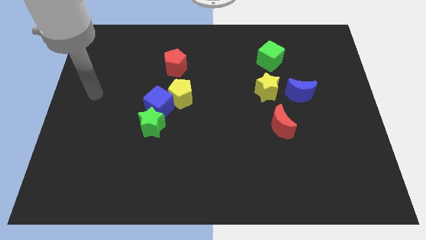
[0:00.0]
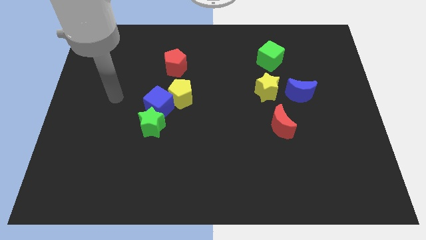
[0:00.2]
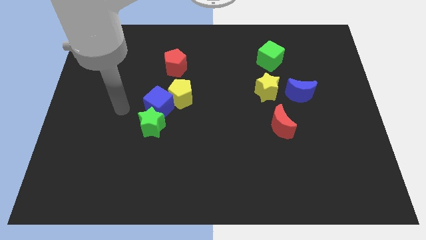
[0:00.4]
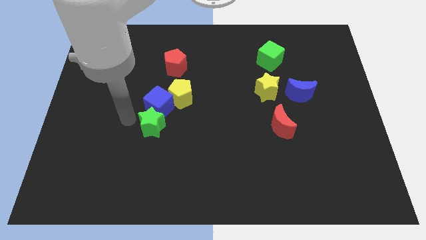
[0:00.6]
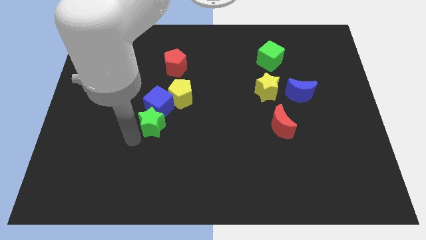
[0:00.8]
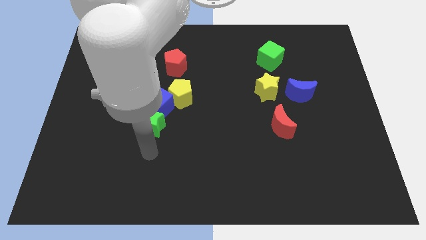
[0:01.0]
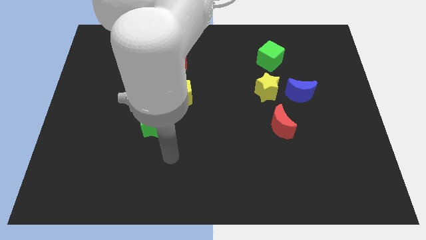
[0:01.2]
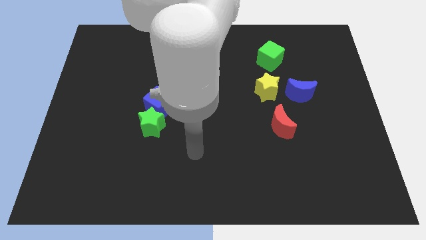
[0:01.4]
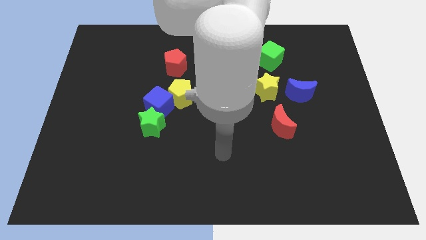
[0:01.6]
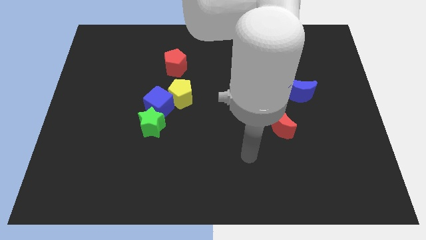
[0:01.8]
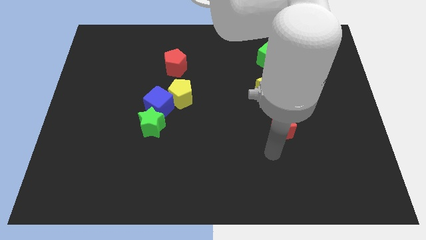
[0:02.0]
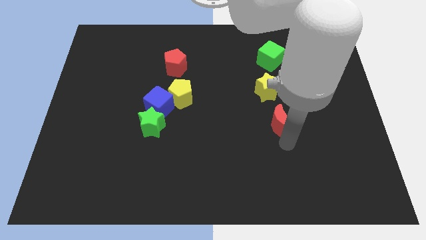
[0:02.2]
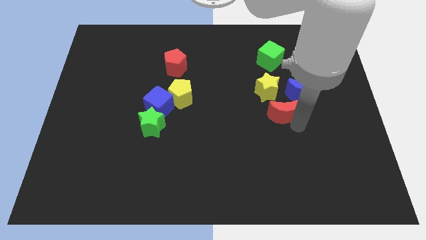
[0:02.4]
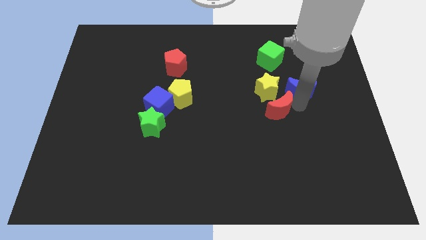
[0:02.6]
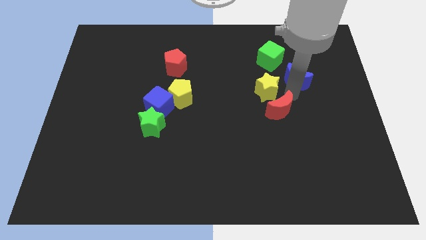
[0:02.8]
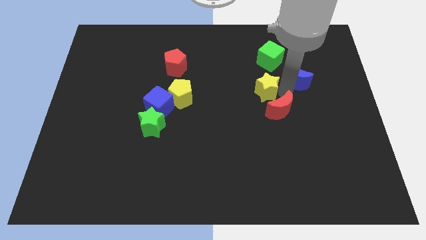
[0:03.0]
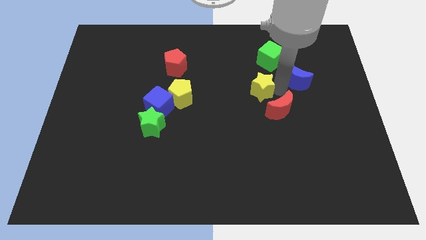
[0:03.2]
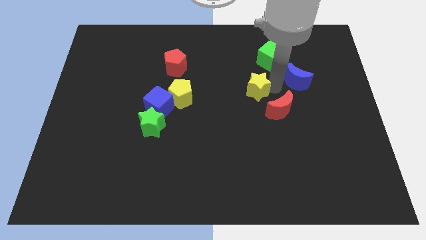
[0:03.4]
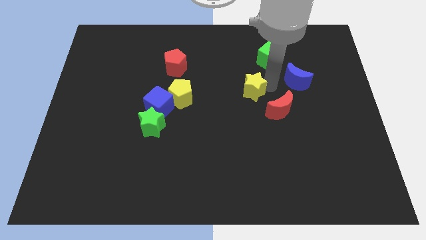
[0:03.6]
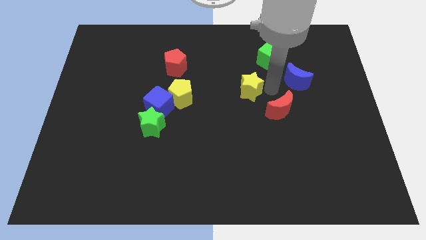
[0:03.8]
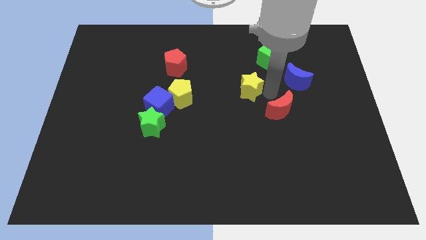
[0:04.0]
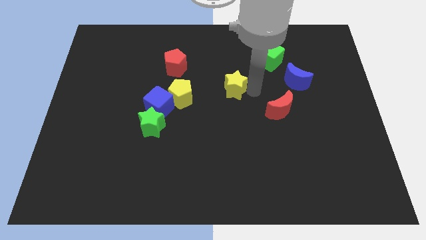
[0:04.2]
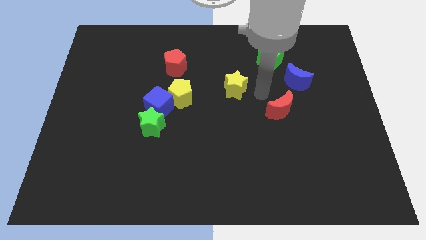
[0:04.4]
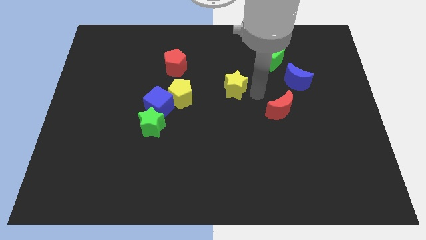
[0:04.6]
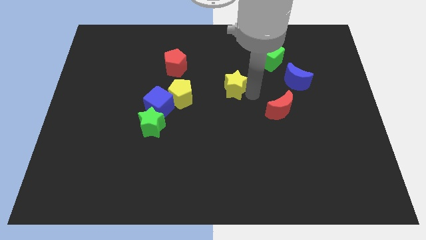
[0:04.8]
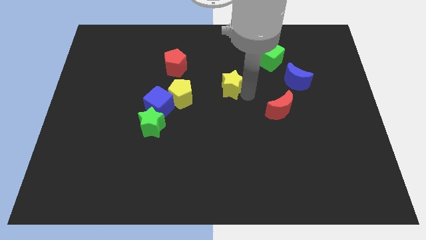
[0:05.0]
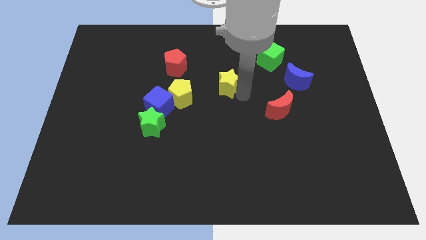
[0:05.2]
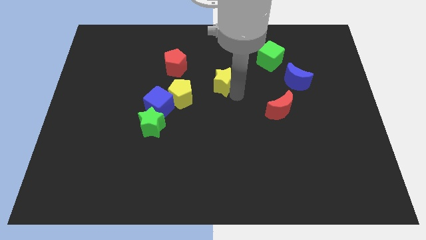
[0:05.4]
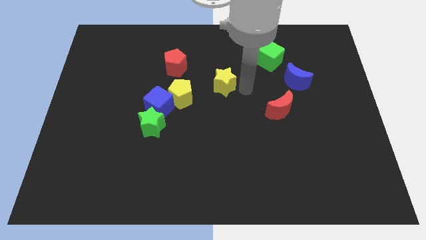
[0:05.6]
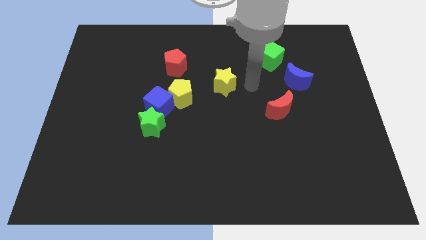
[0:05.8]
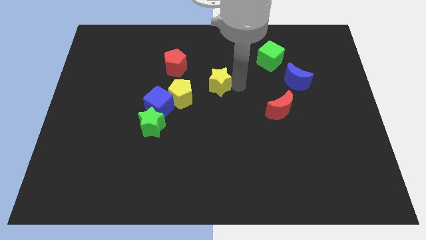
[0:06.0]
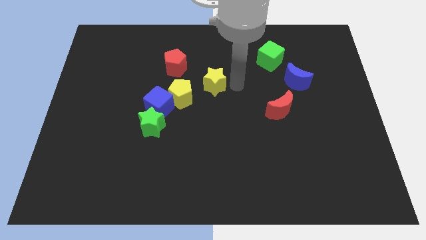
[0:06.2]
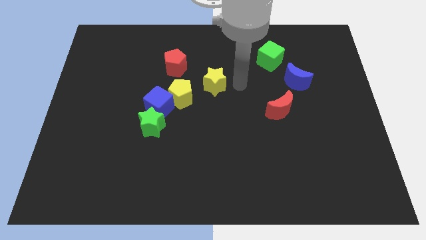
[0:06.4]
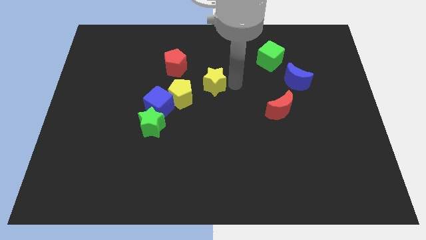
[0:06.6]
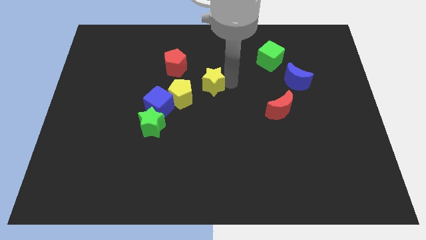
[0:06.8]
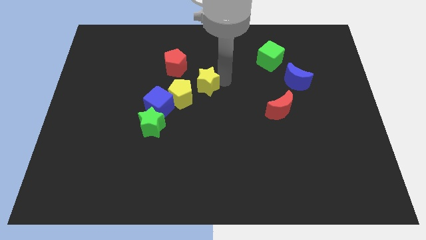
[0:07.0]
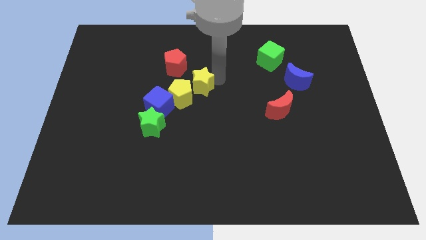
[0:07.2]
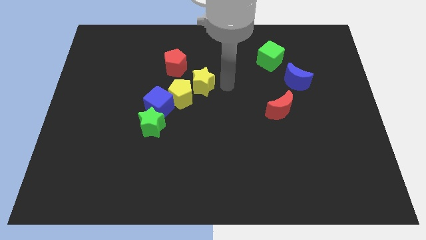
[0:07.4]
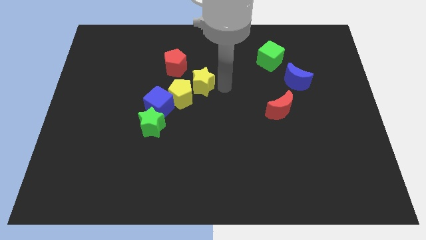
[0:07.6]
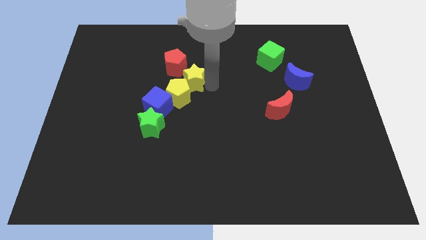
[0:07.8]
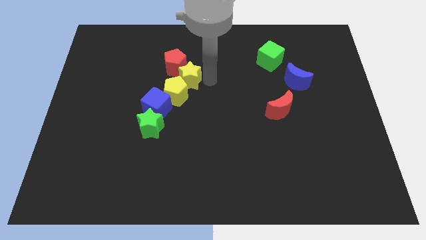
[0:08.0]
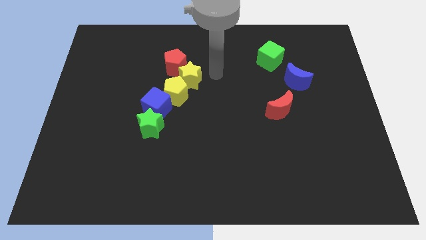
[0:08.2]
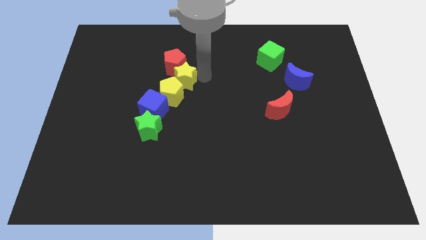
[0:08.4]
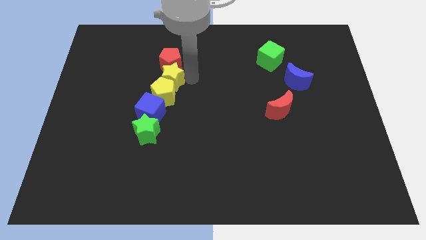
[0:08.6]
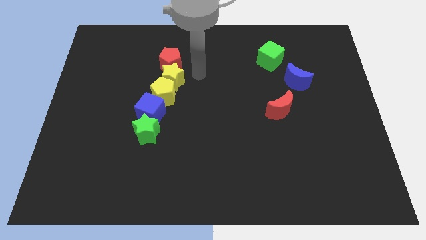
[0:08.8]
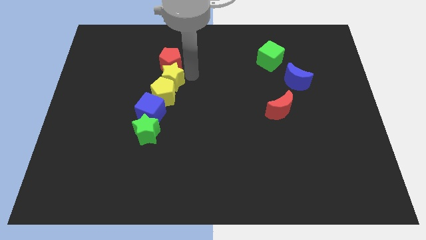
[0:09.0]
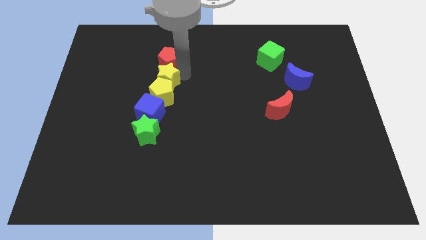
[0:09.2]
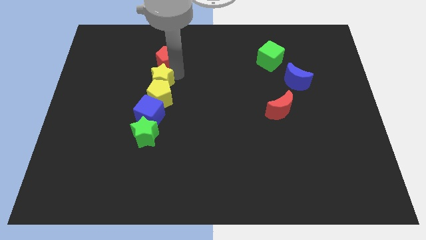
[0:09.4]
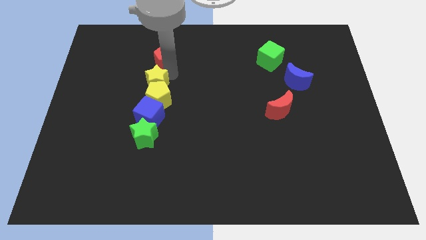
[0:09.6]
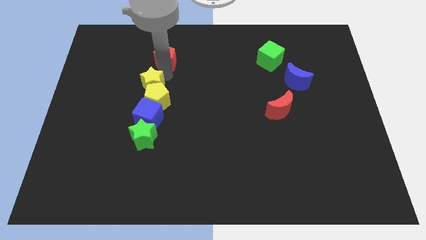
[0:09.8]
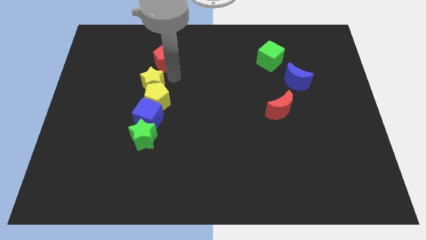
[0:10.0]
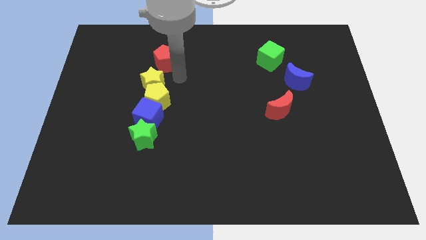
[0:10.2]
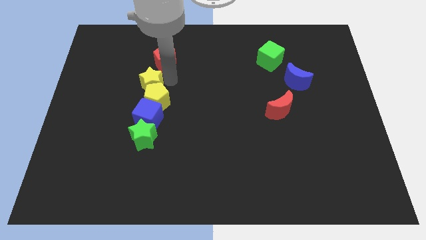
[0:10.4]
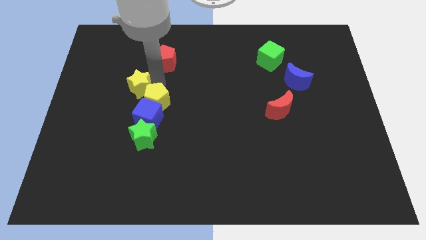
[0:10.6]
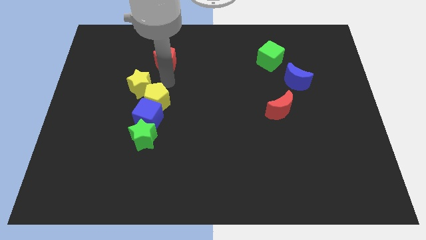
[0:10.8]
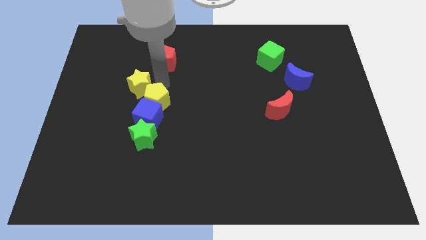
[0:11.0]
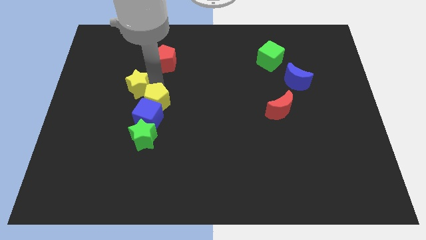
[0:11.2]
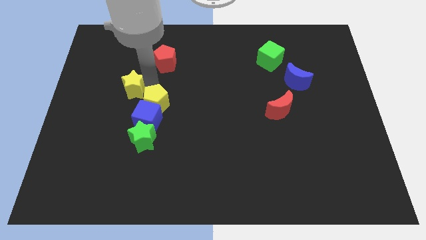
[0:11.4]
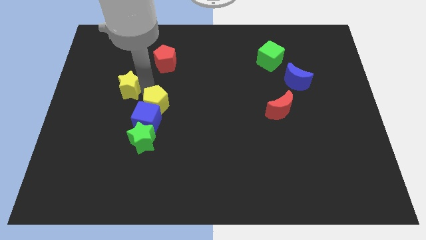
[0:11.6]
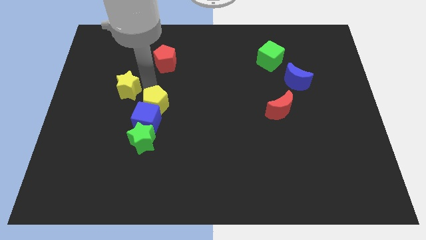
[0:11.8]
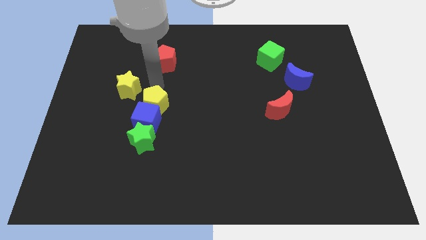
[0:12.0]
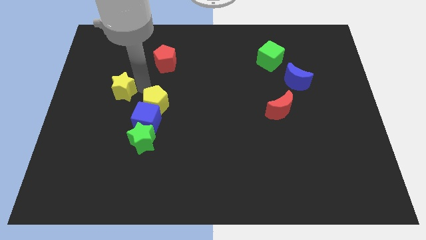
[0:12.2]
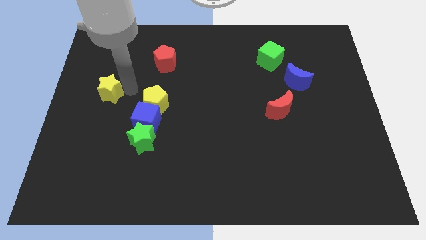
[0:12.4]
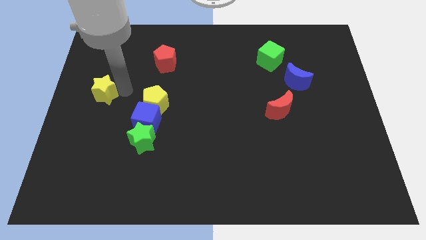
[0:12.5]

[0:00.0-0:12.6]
put the yellow star to the left side
